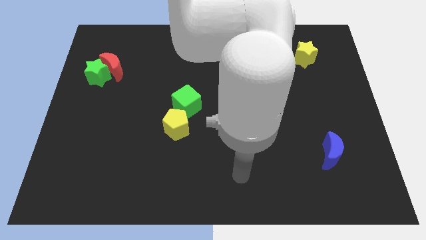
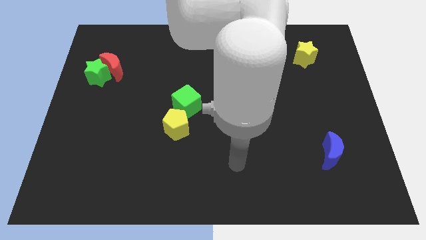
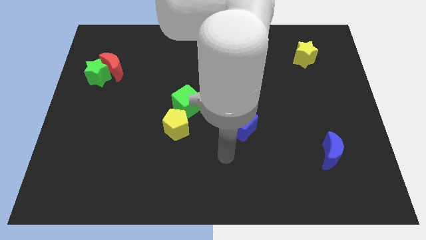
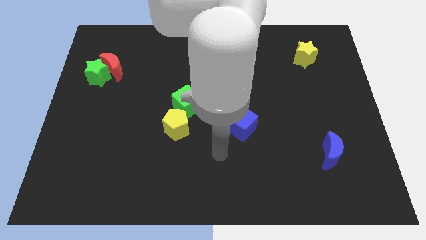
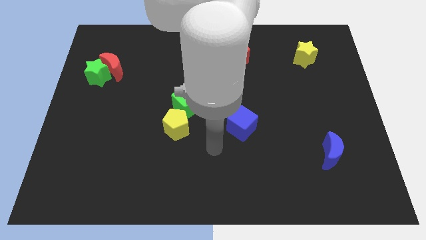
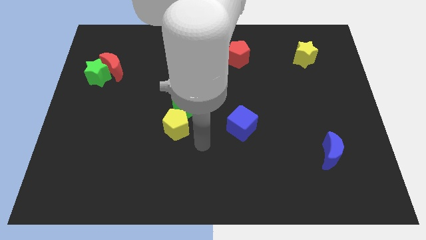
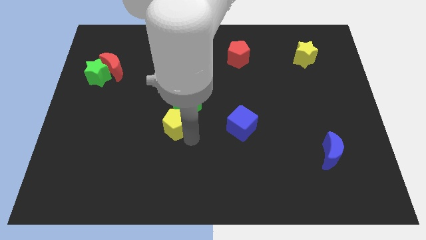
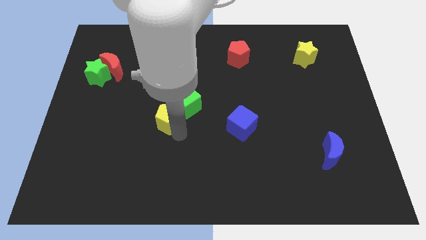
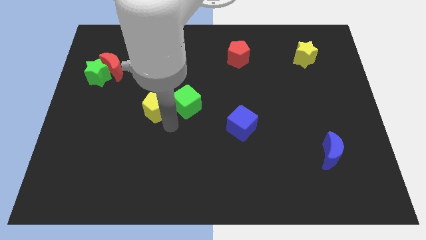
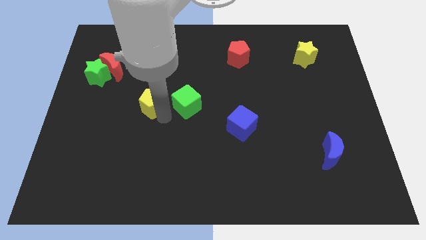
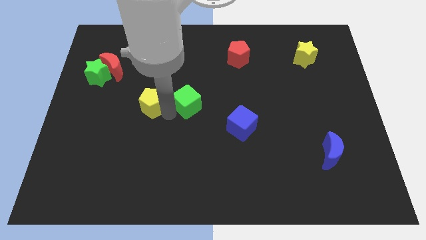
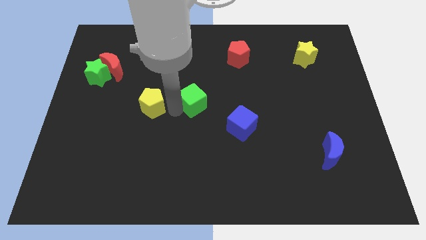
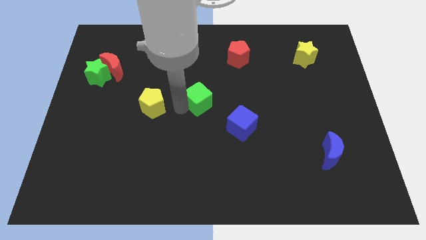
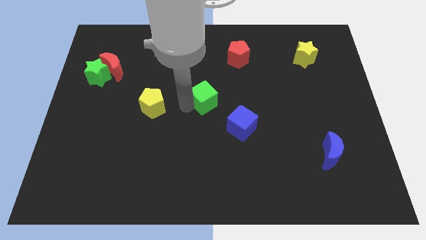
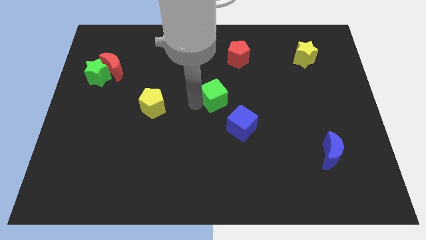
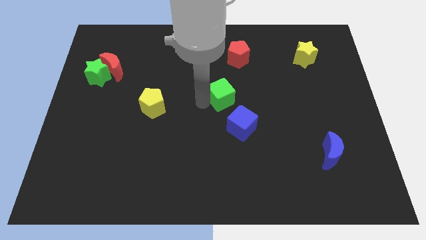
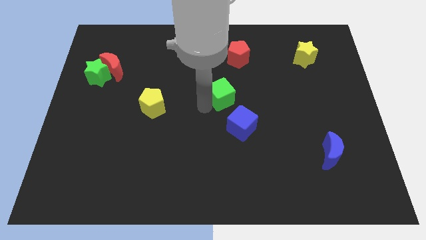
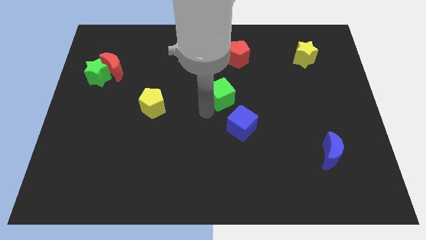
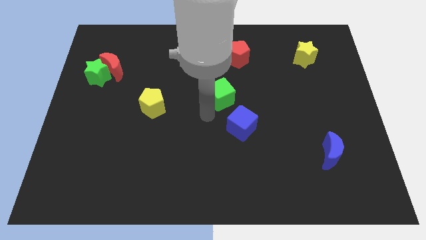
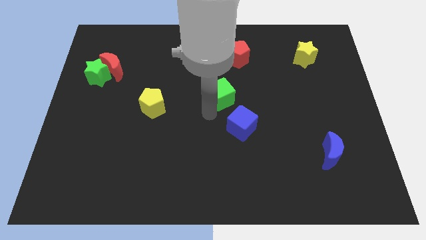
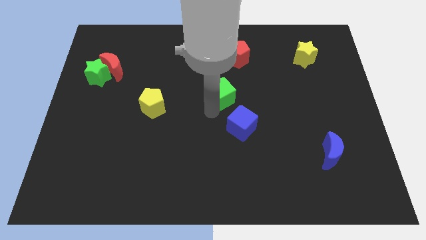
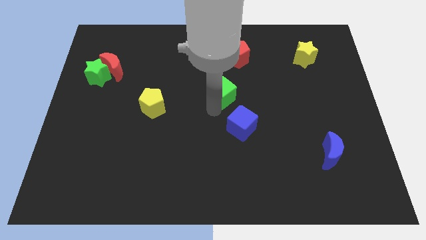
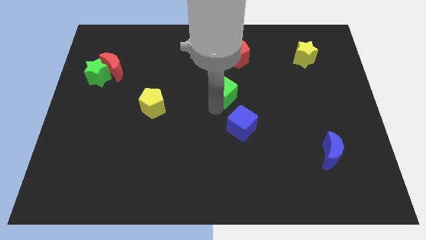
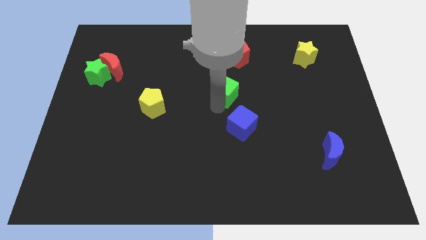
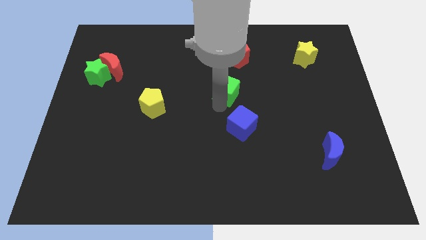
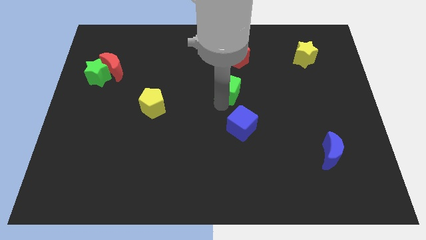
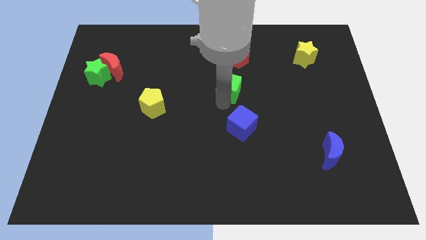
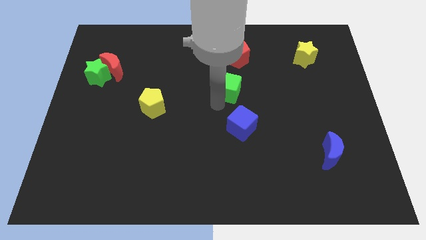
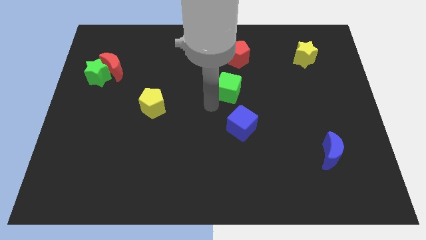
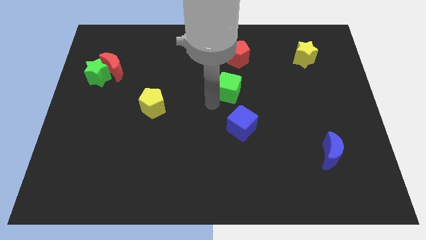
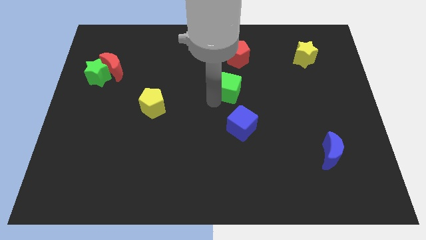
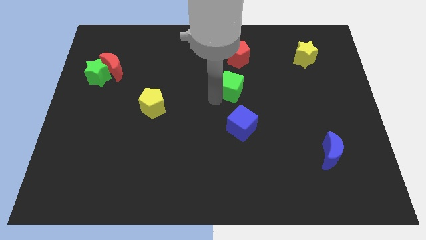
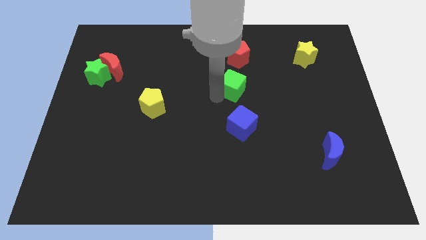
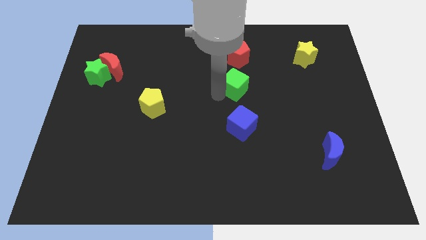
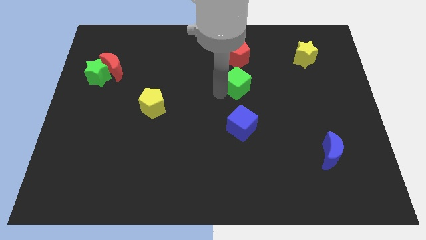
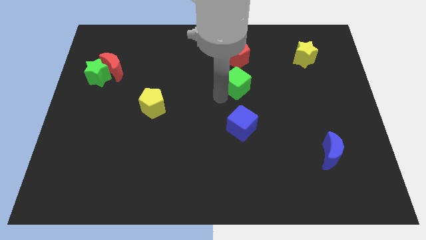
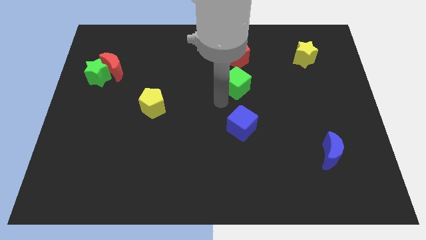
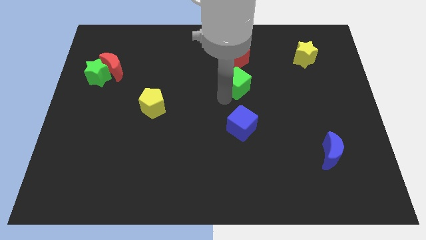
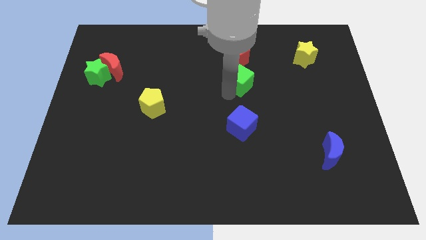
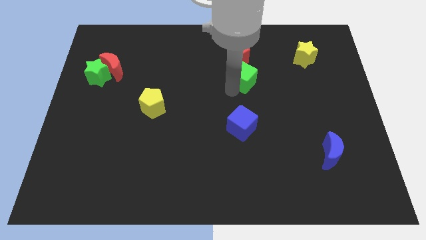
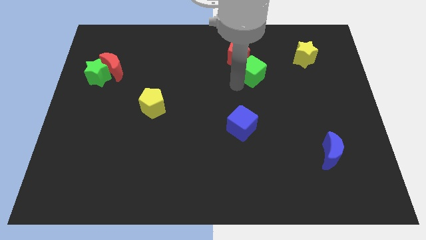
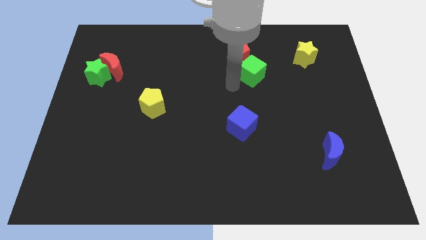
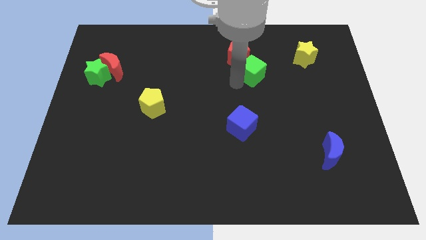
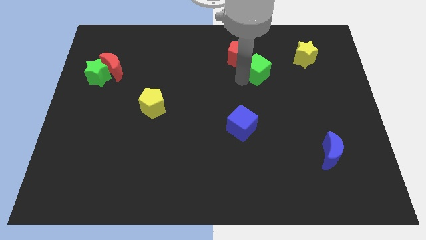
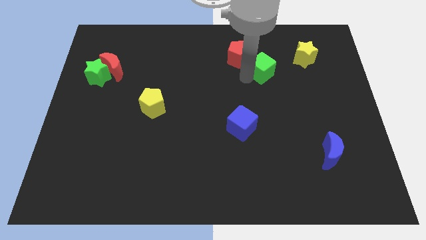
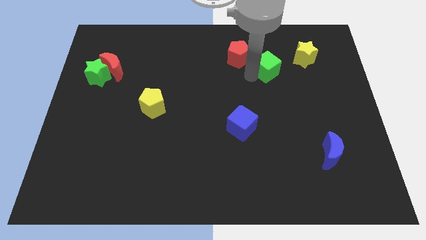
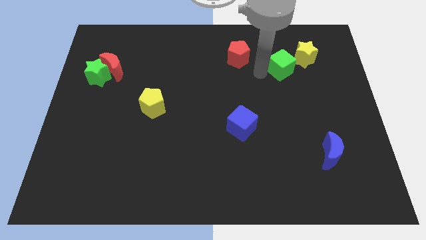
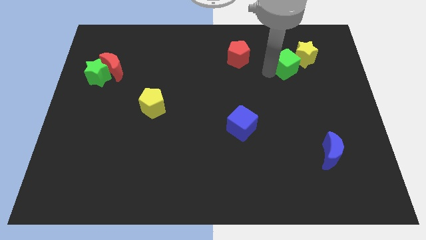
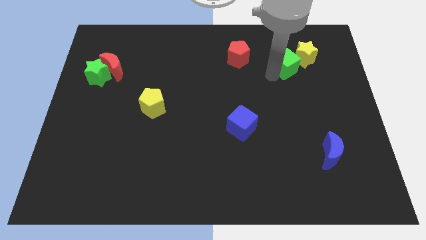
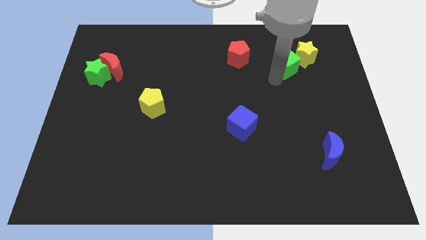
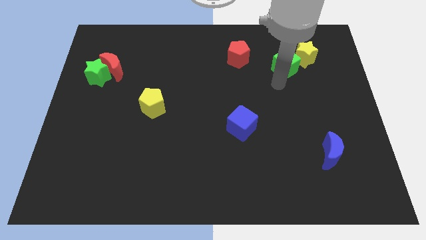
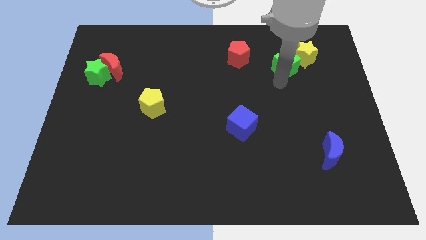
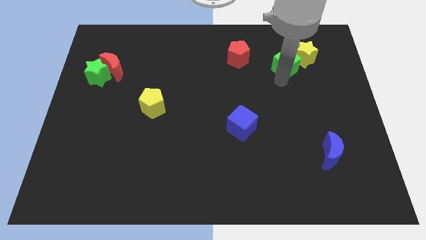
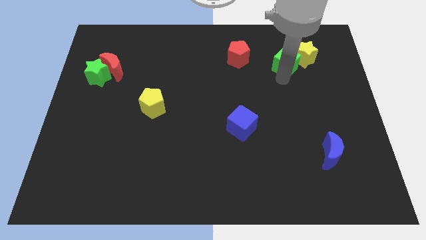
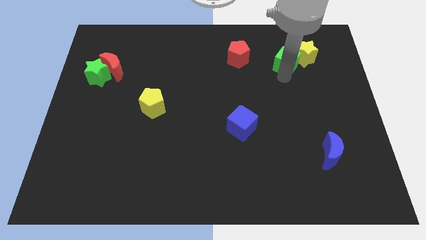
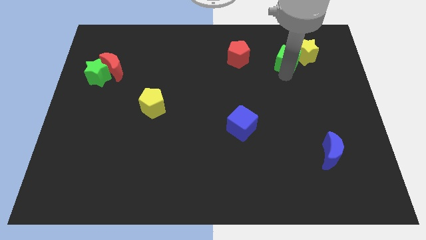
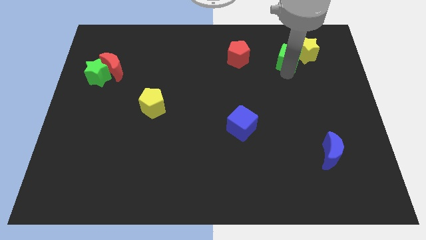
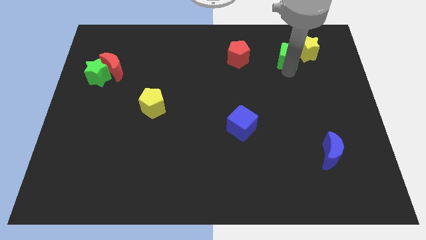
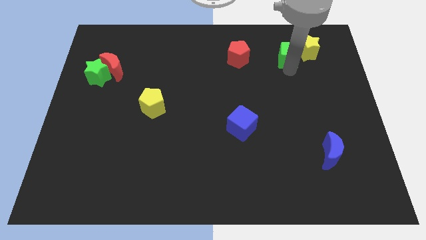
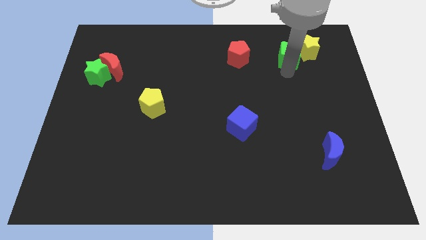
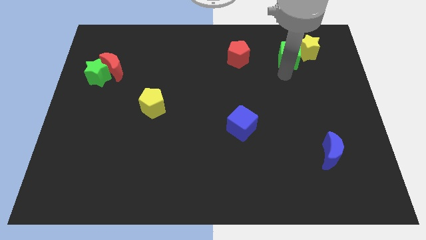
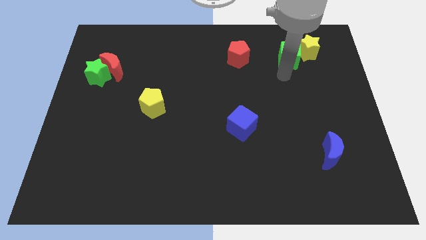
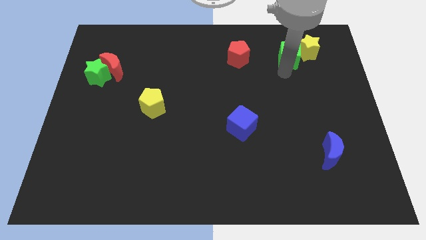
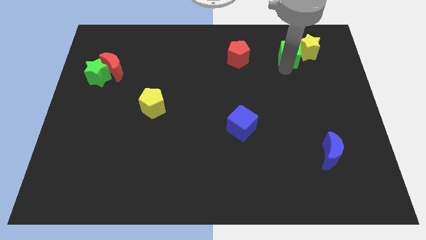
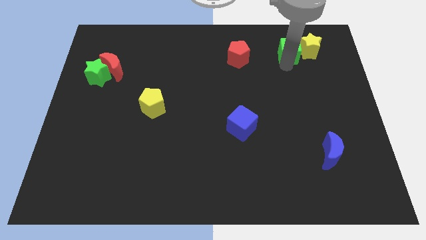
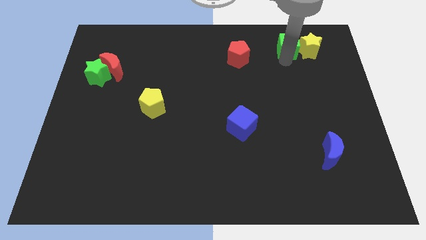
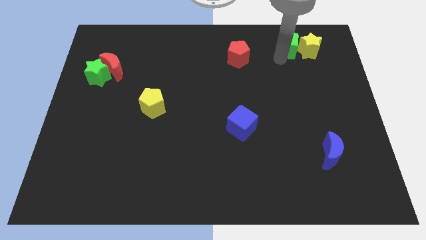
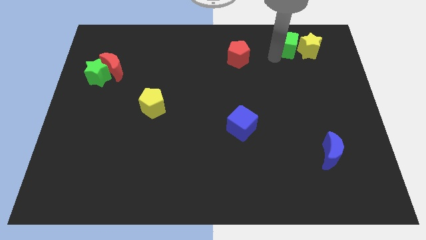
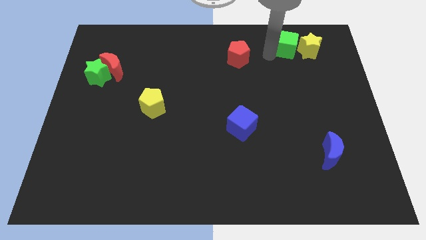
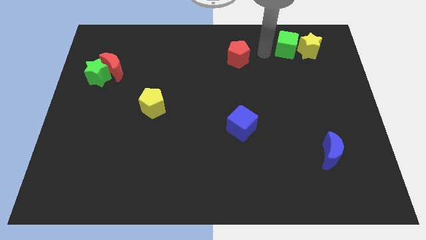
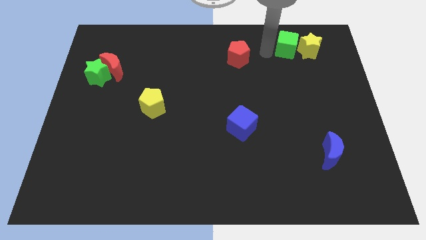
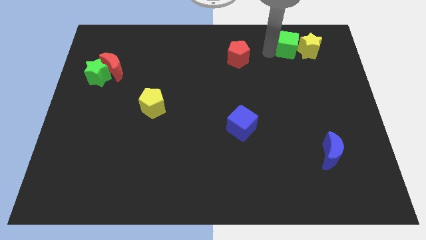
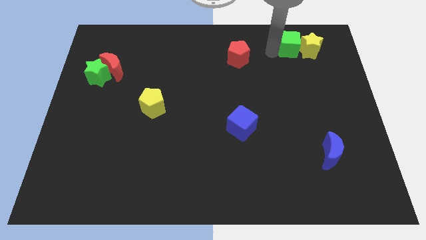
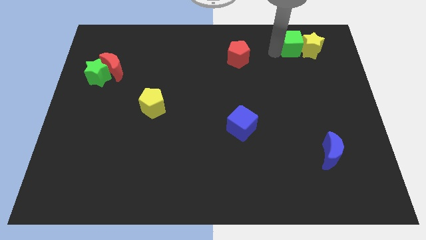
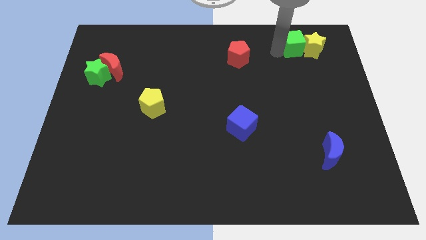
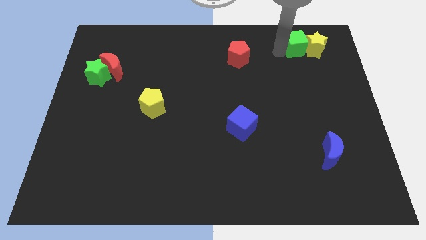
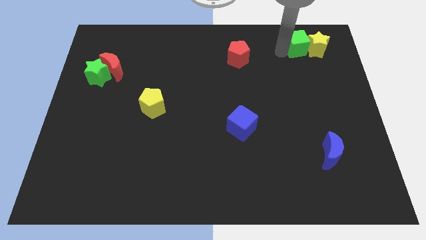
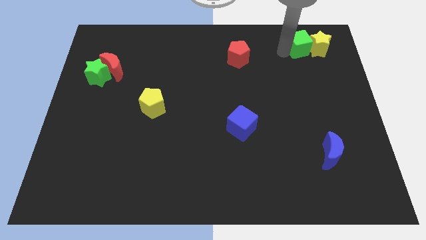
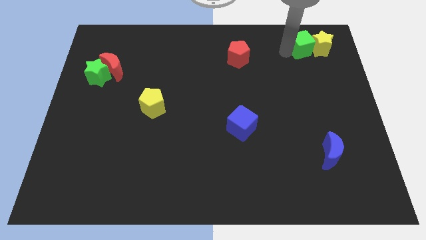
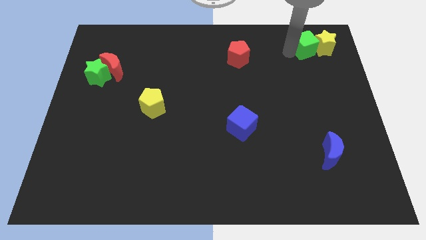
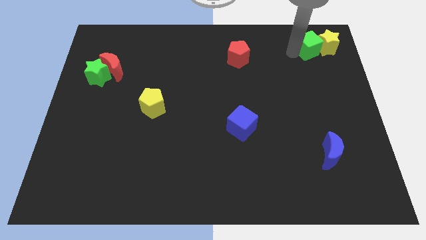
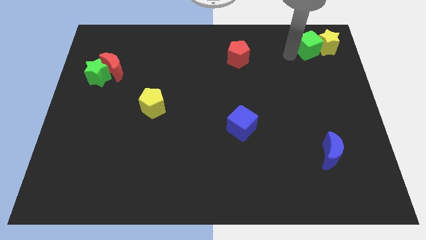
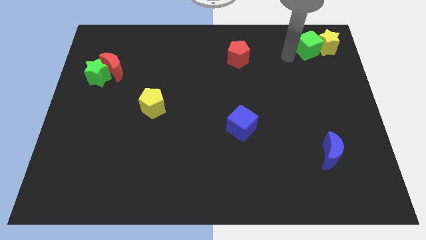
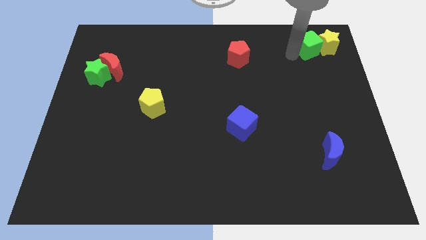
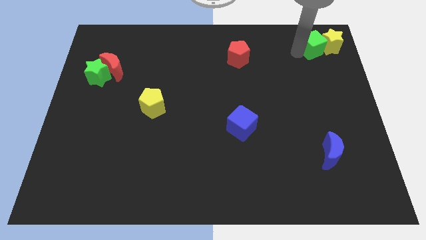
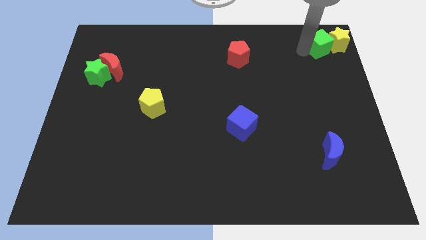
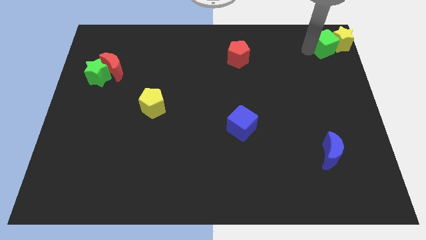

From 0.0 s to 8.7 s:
move the green cube to the top right
